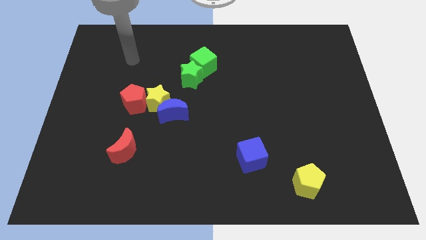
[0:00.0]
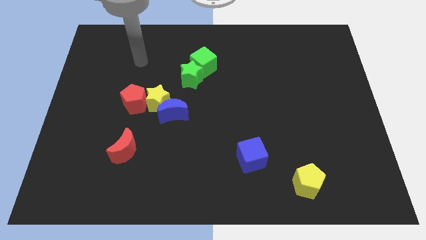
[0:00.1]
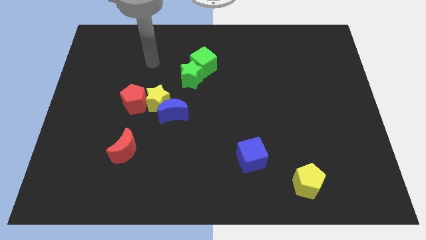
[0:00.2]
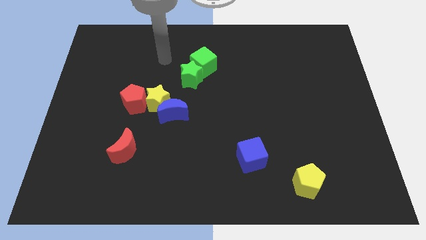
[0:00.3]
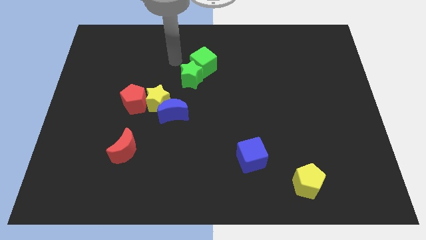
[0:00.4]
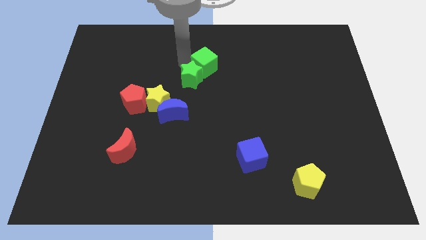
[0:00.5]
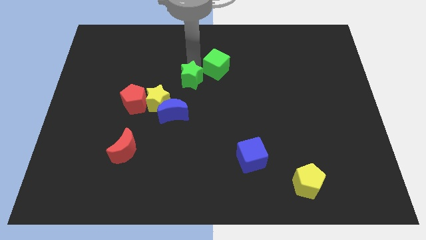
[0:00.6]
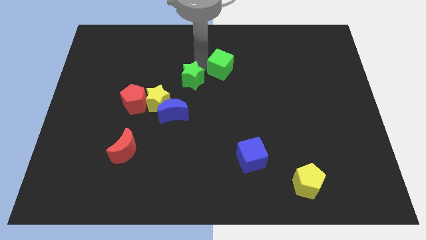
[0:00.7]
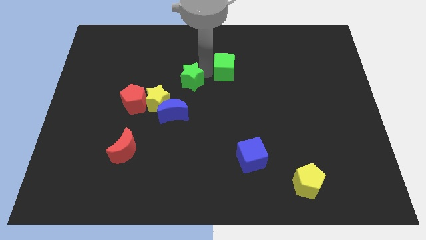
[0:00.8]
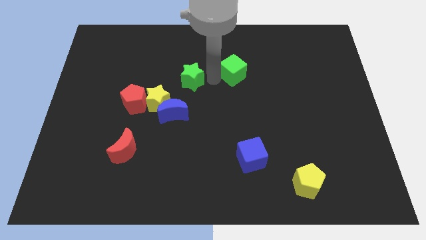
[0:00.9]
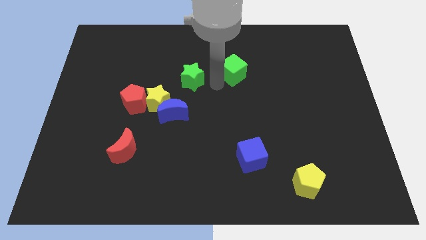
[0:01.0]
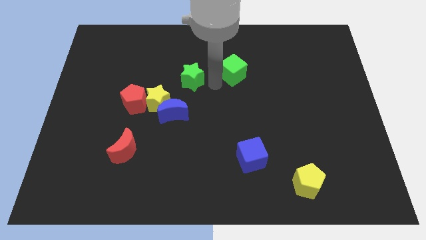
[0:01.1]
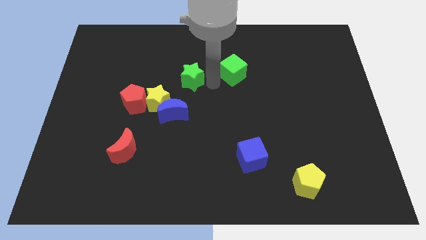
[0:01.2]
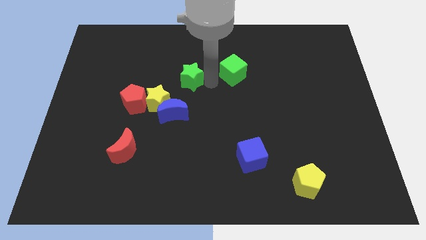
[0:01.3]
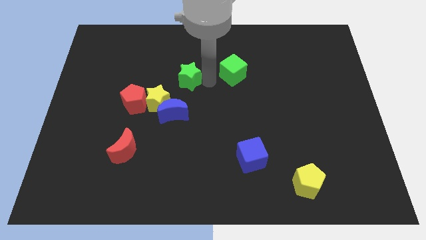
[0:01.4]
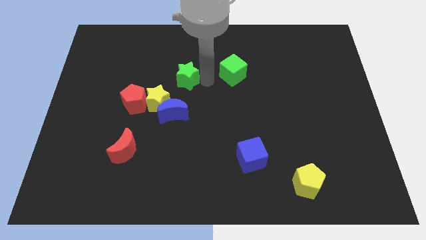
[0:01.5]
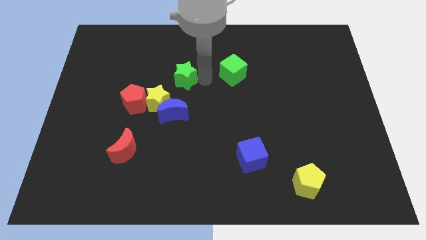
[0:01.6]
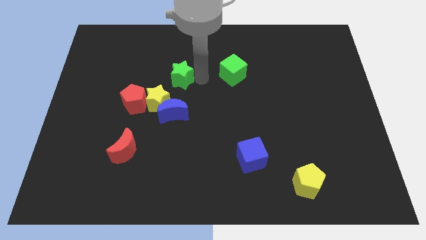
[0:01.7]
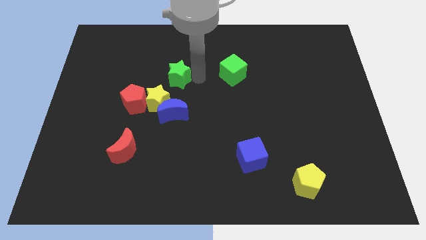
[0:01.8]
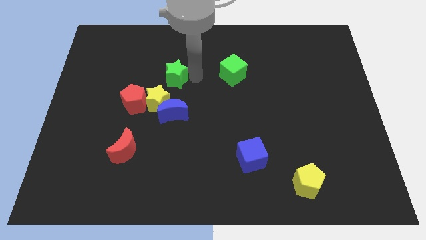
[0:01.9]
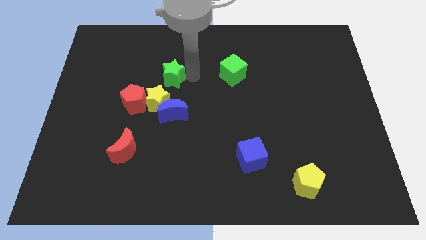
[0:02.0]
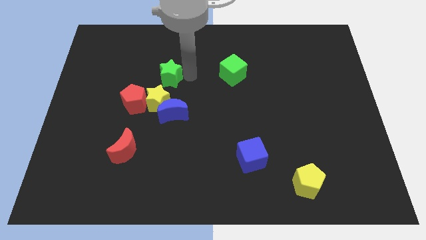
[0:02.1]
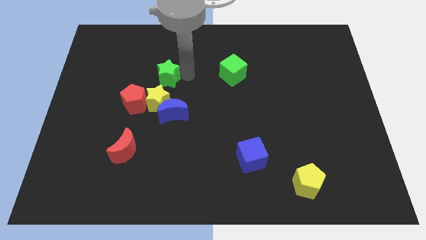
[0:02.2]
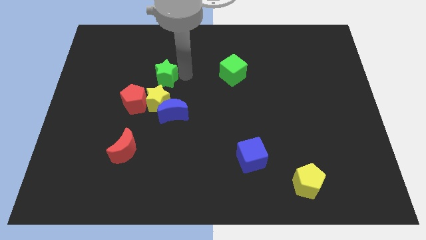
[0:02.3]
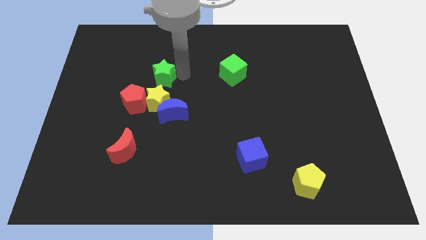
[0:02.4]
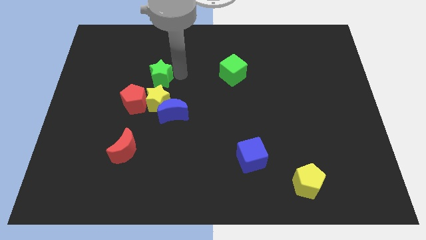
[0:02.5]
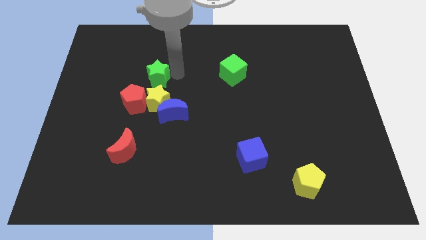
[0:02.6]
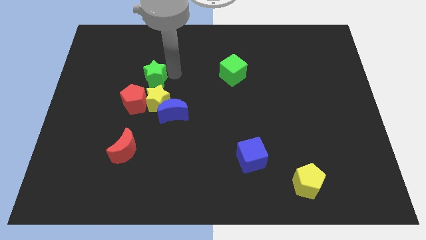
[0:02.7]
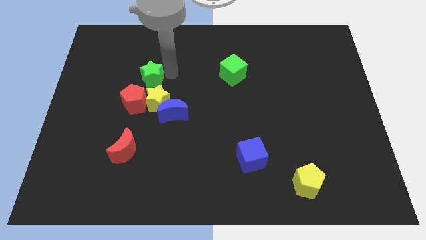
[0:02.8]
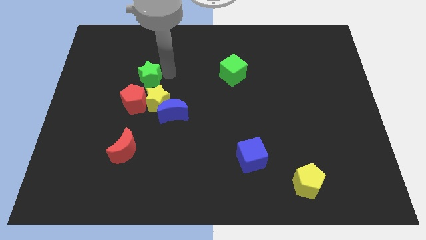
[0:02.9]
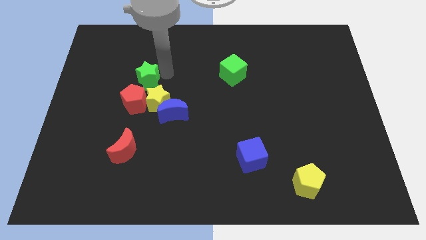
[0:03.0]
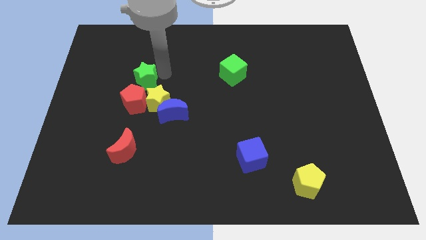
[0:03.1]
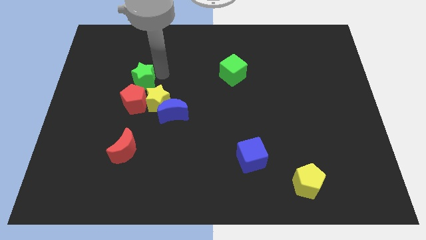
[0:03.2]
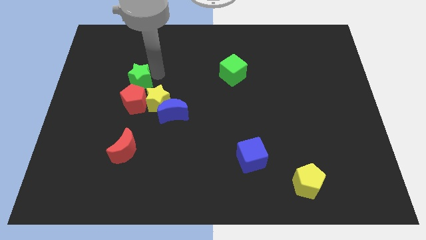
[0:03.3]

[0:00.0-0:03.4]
slightly slide the green star down and then left

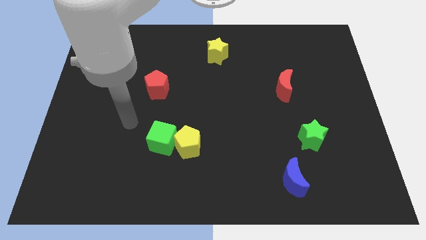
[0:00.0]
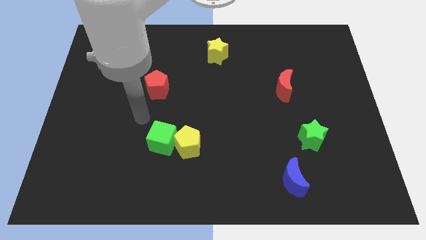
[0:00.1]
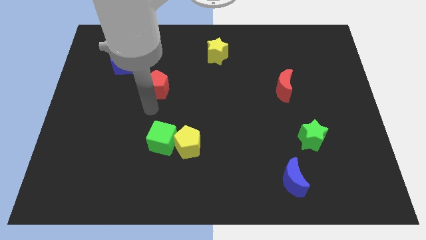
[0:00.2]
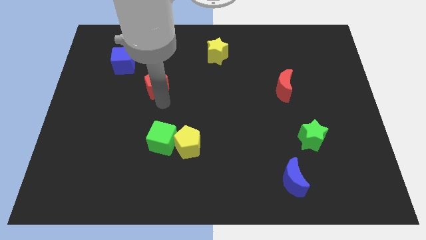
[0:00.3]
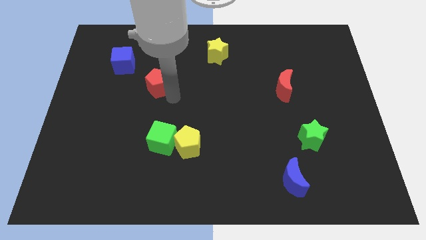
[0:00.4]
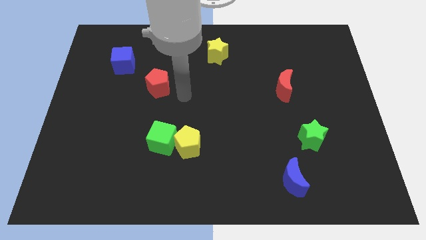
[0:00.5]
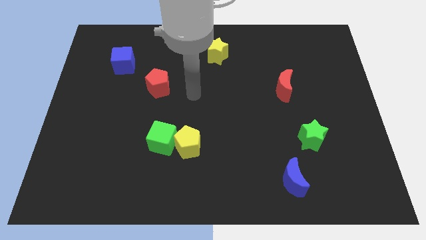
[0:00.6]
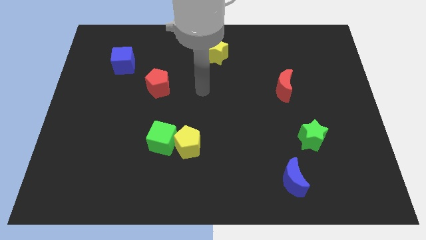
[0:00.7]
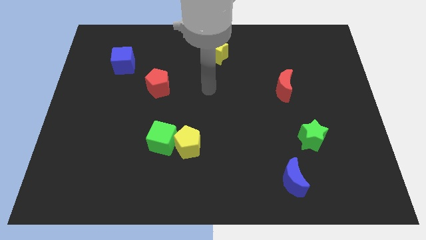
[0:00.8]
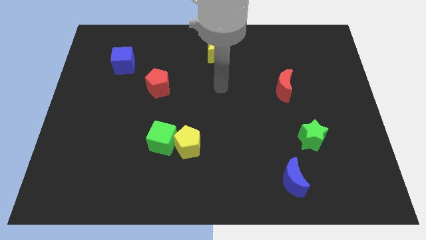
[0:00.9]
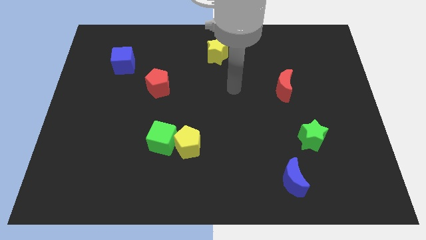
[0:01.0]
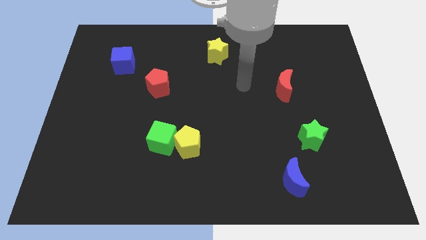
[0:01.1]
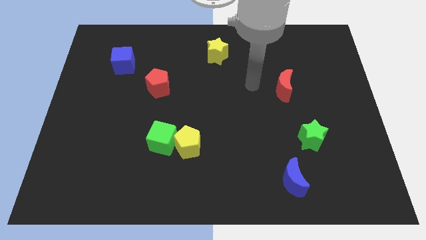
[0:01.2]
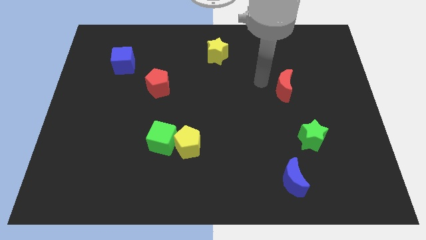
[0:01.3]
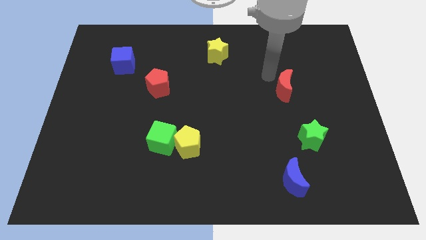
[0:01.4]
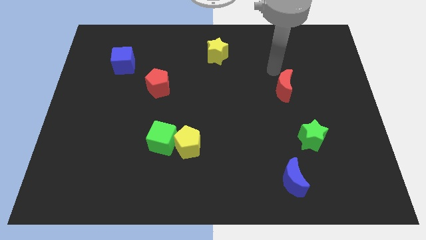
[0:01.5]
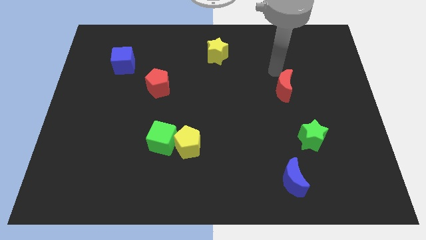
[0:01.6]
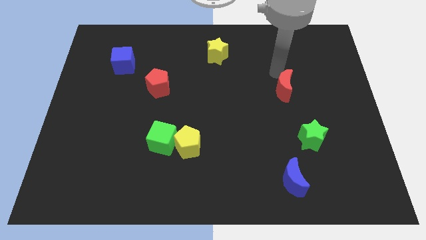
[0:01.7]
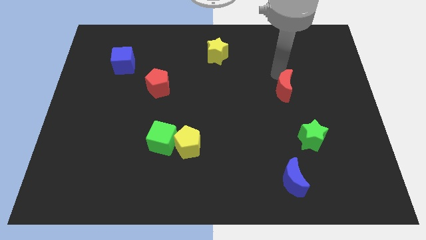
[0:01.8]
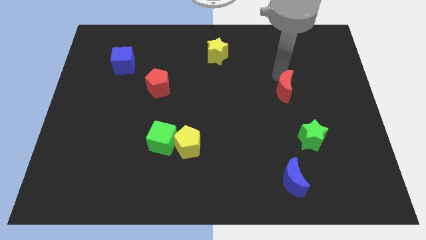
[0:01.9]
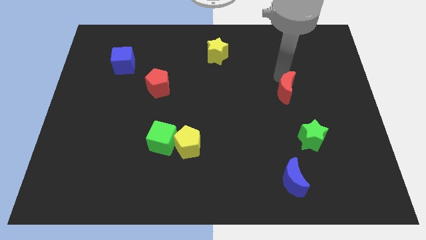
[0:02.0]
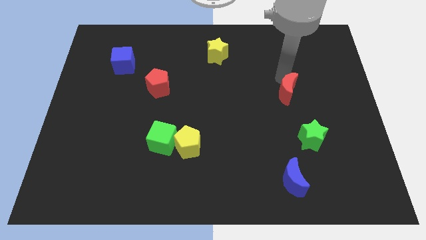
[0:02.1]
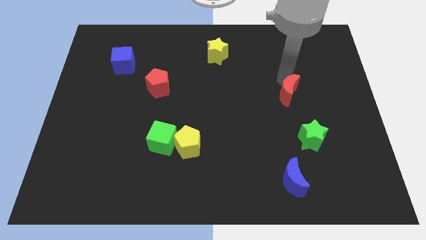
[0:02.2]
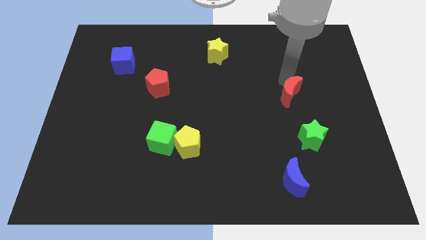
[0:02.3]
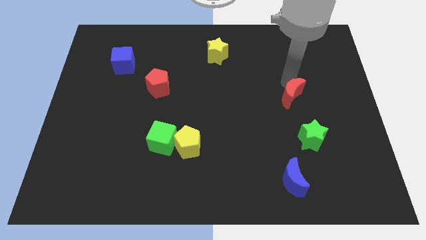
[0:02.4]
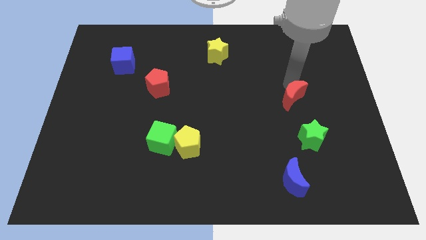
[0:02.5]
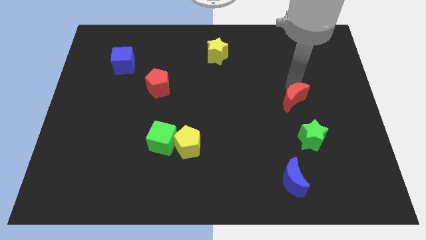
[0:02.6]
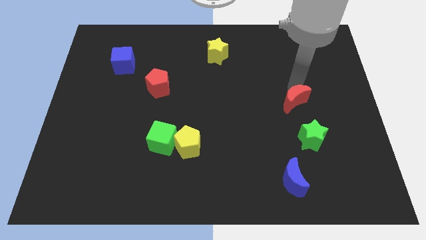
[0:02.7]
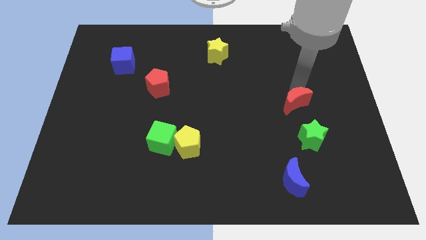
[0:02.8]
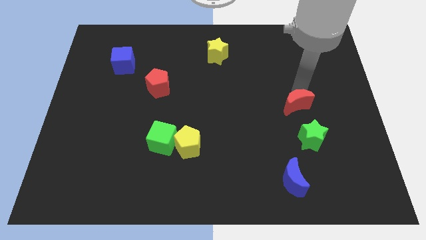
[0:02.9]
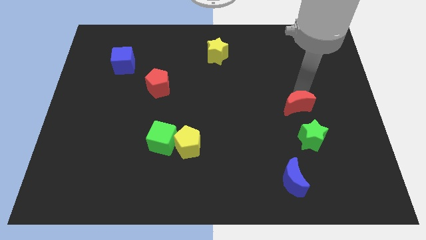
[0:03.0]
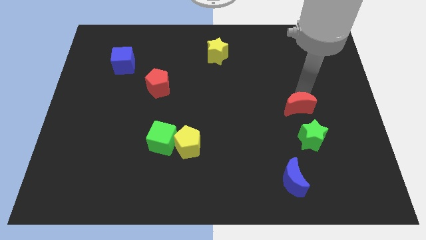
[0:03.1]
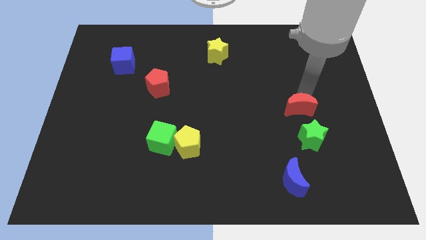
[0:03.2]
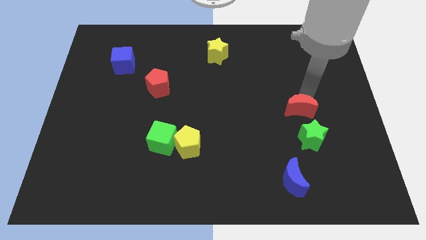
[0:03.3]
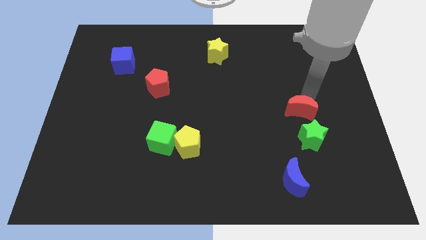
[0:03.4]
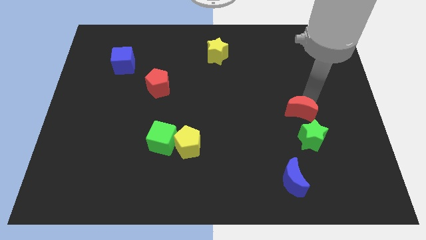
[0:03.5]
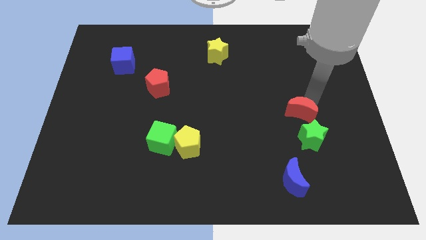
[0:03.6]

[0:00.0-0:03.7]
move the red moon a little bit down

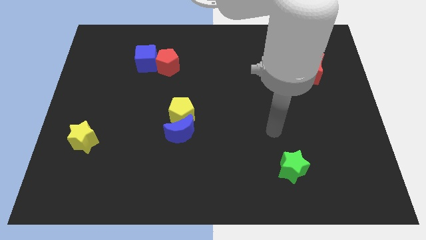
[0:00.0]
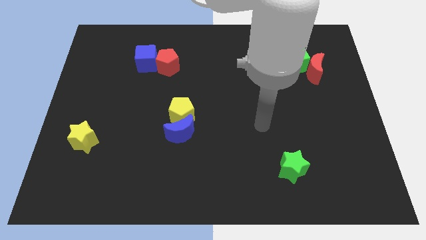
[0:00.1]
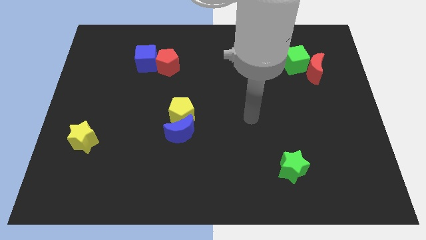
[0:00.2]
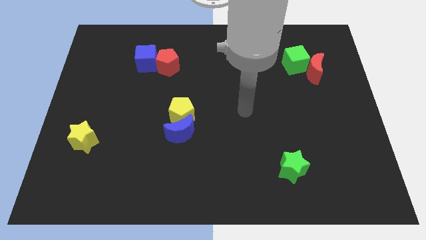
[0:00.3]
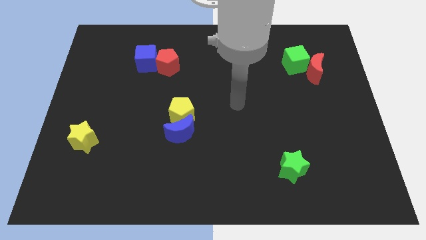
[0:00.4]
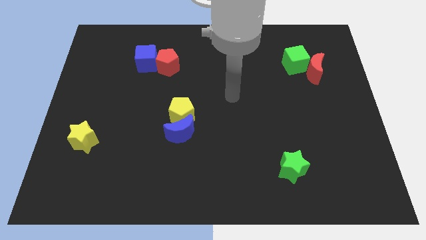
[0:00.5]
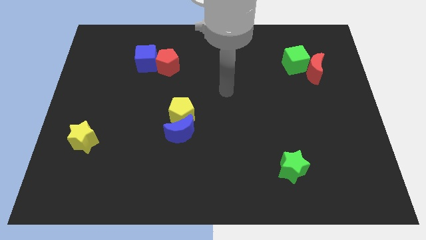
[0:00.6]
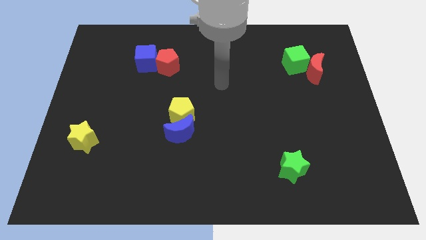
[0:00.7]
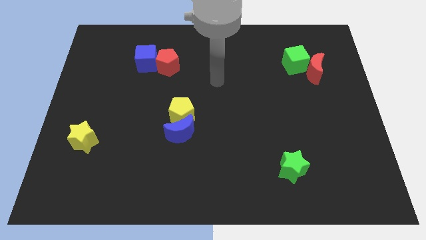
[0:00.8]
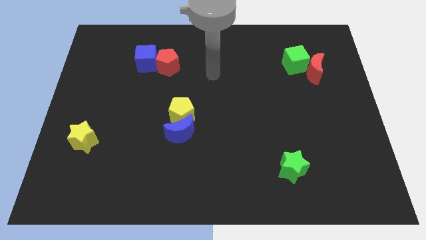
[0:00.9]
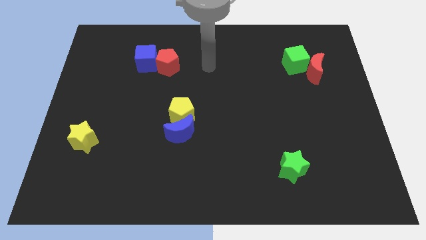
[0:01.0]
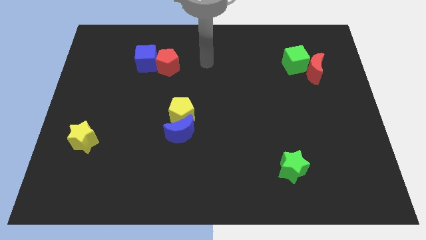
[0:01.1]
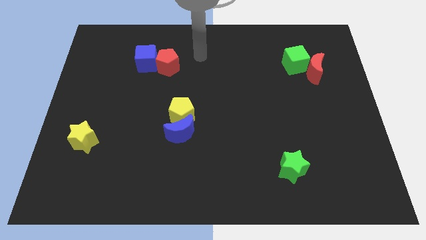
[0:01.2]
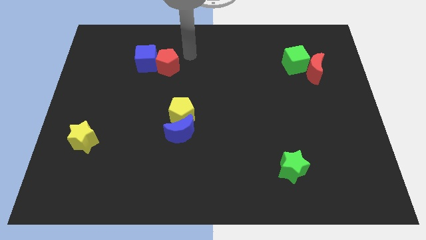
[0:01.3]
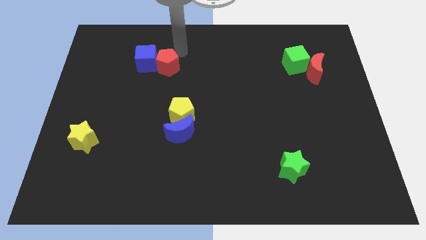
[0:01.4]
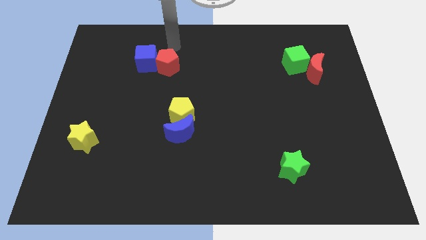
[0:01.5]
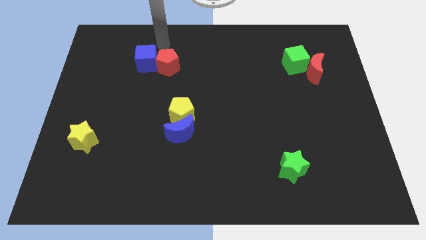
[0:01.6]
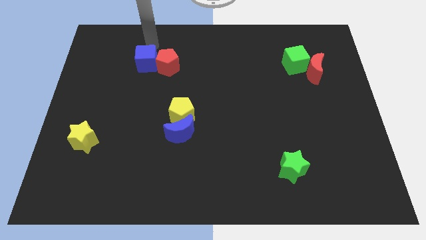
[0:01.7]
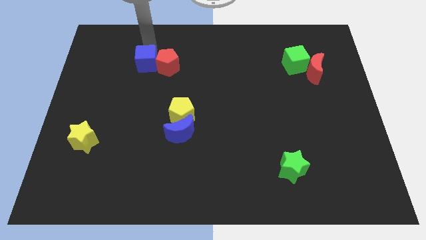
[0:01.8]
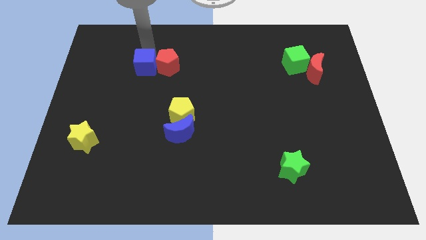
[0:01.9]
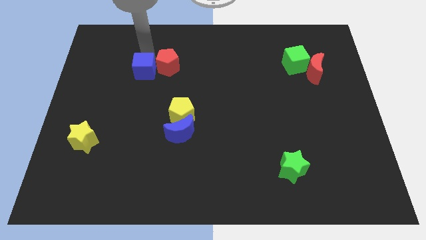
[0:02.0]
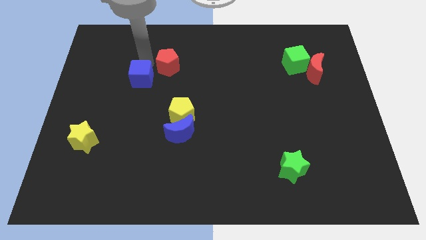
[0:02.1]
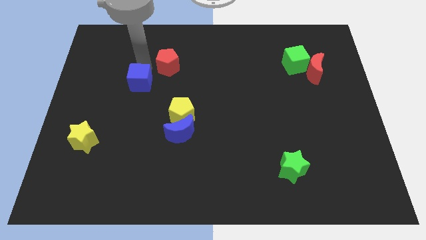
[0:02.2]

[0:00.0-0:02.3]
move the blue cube down a little
